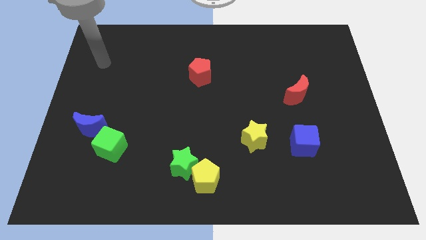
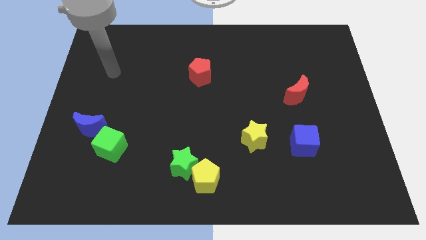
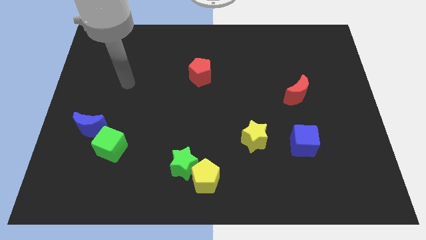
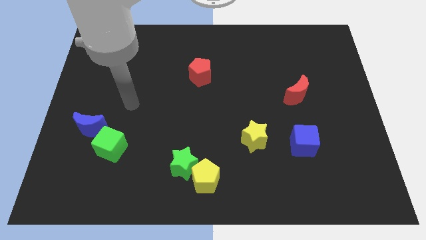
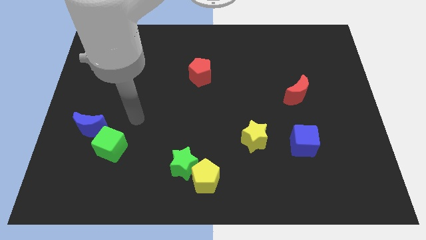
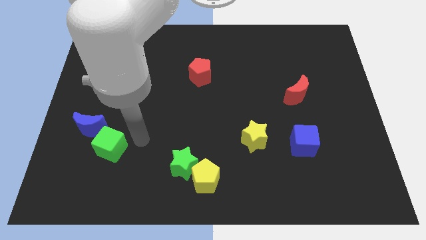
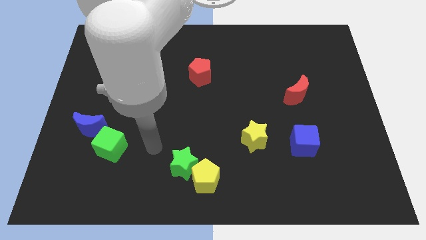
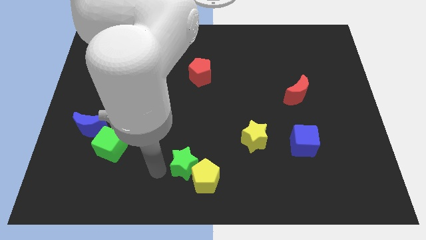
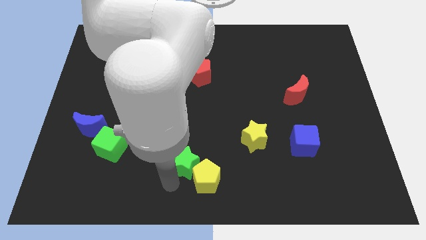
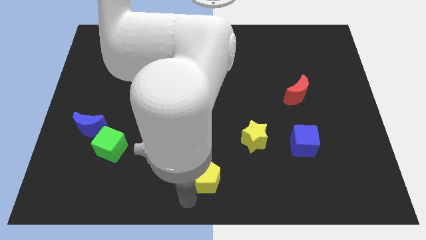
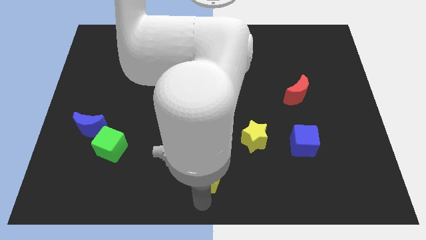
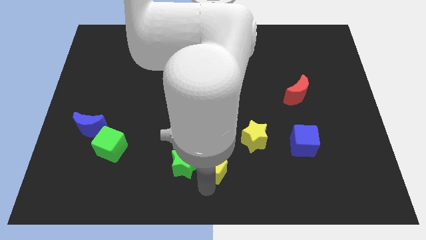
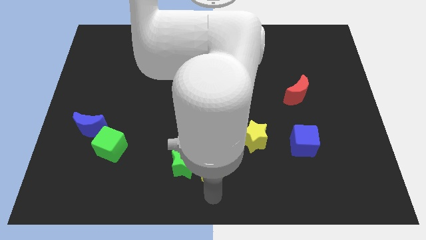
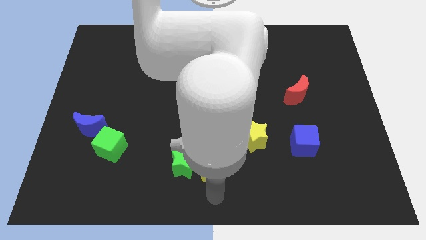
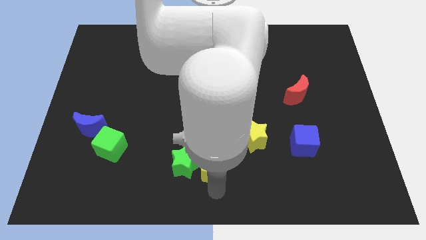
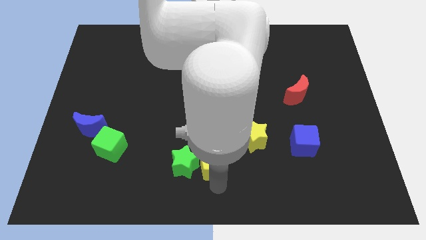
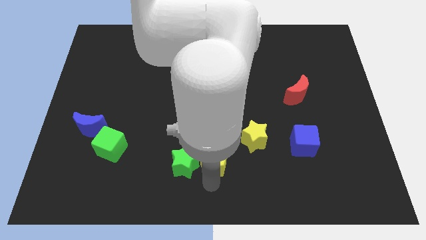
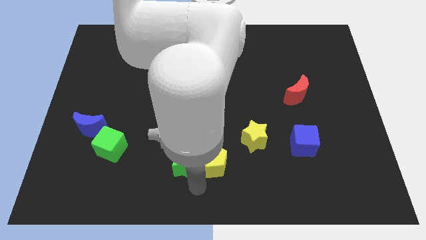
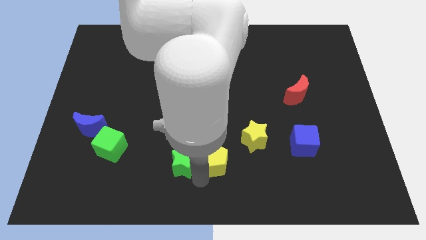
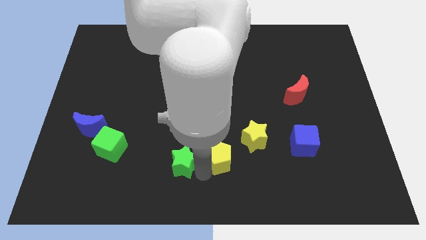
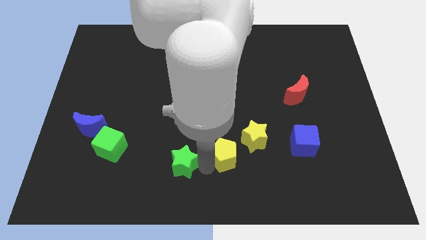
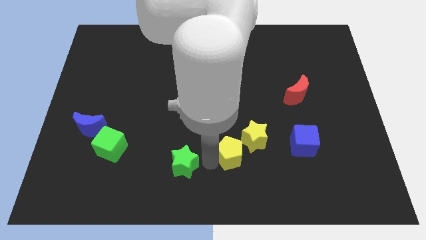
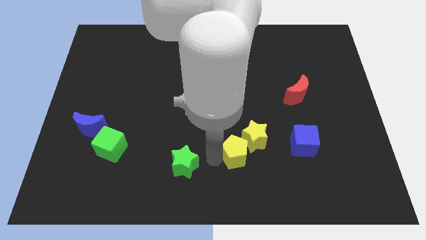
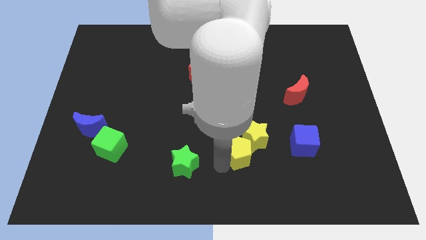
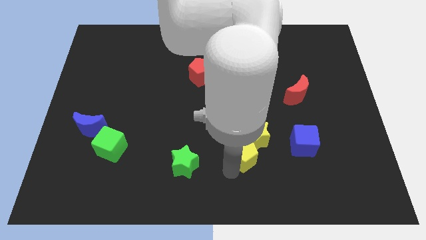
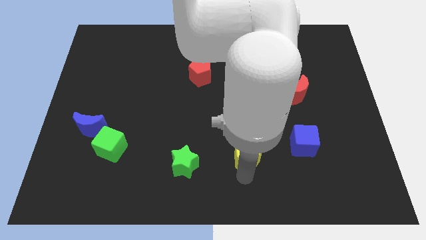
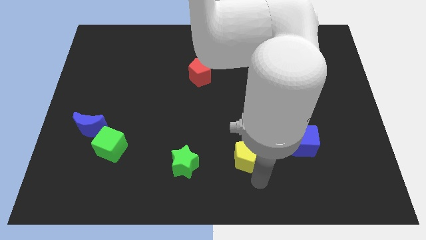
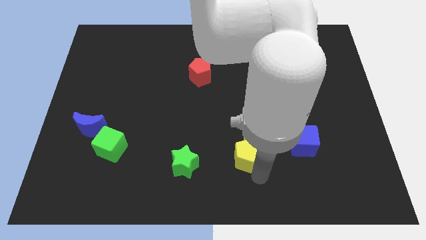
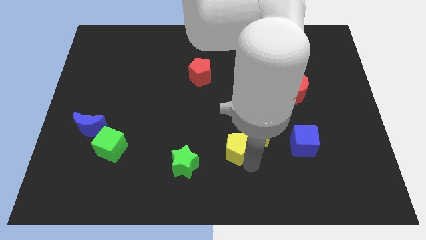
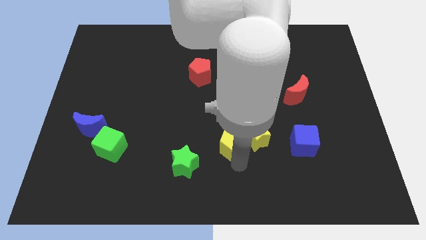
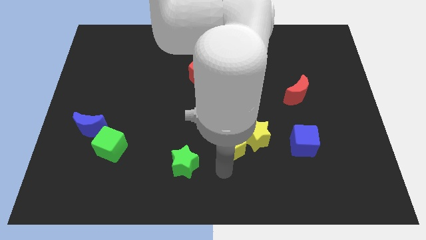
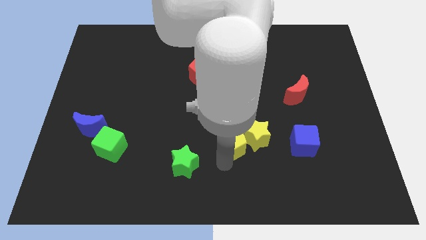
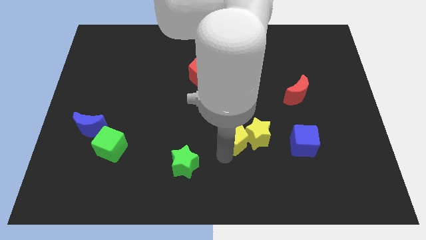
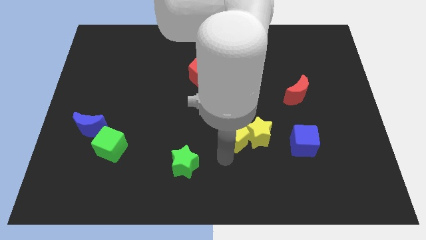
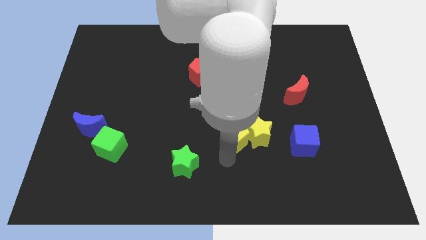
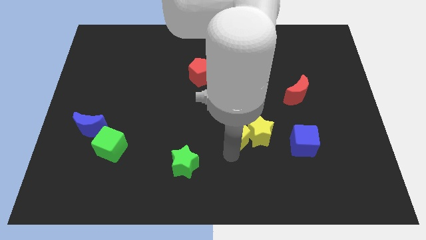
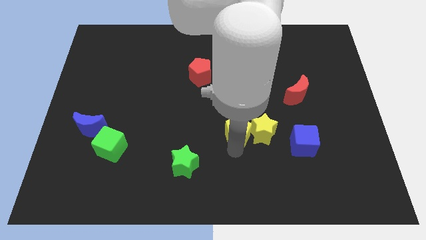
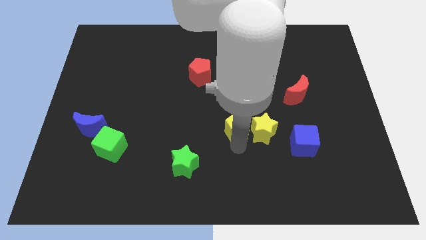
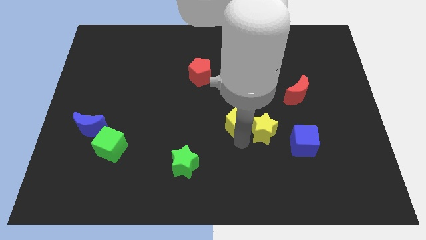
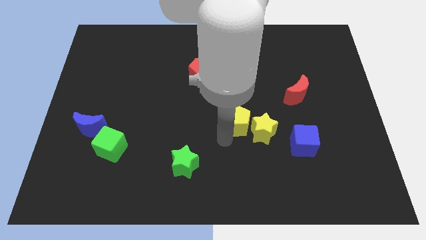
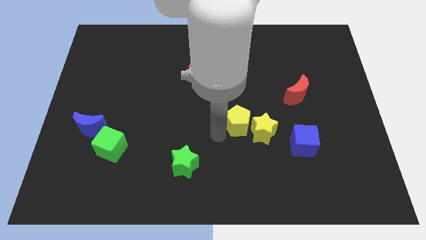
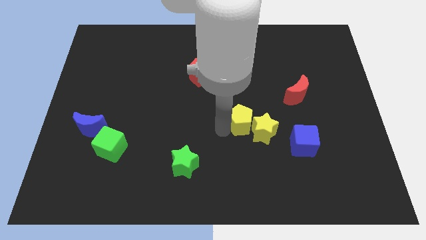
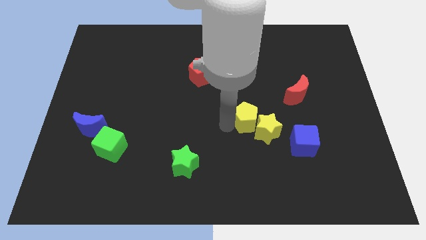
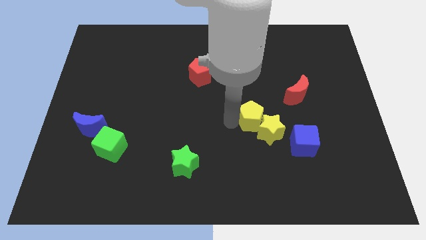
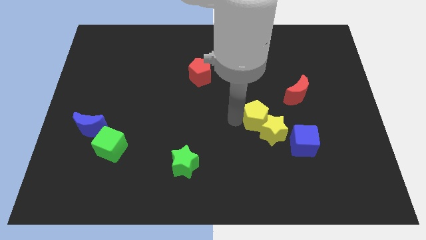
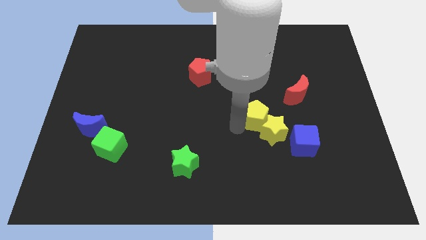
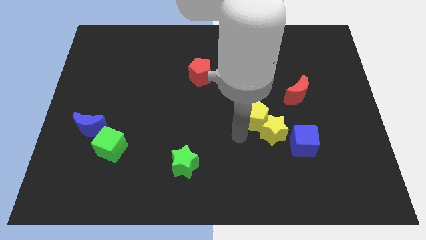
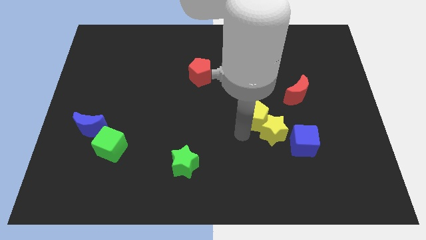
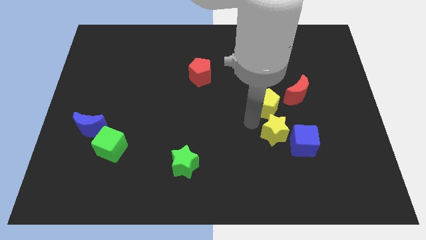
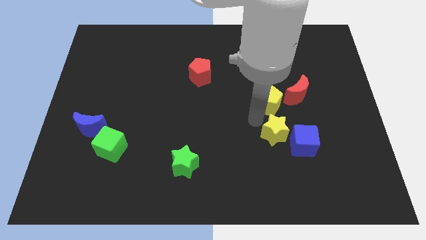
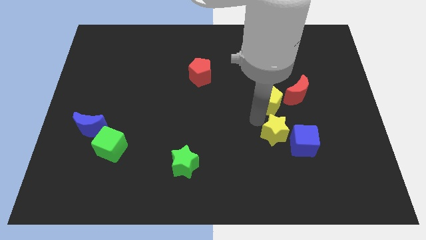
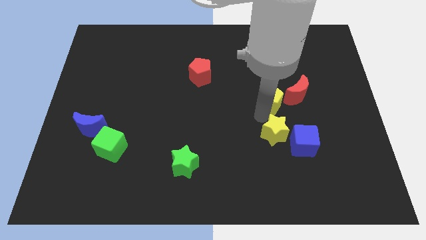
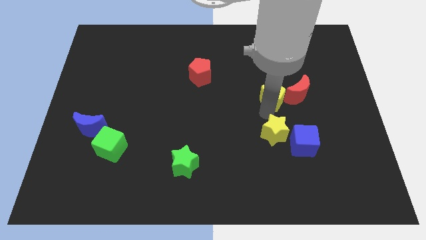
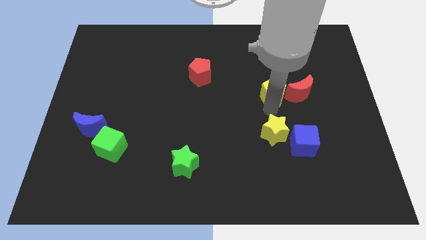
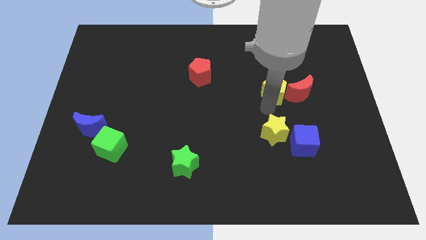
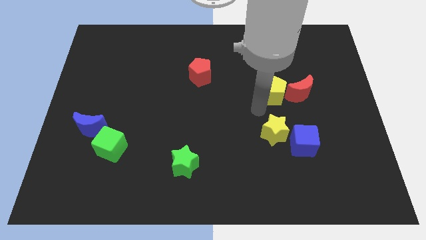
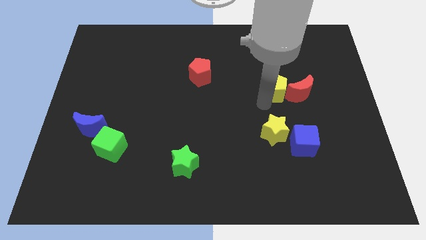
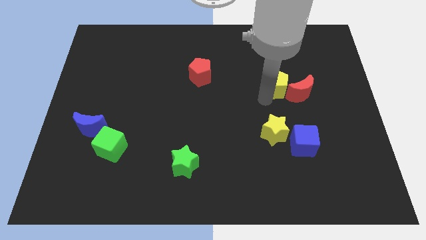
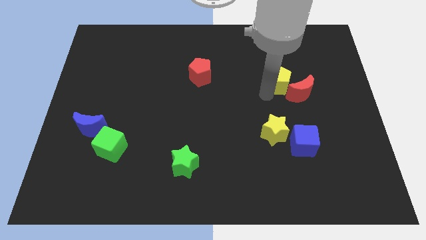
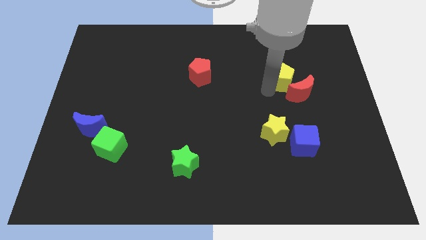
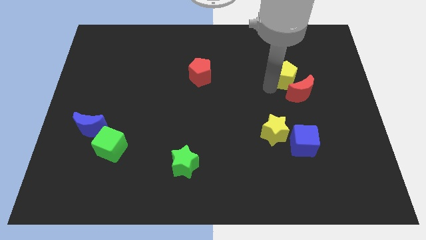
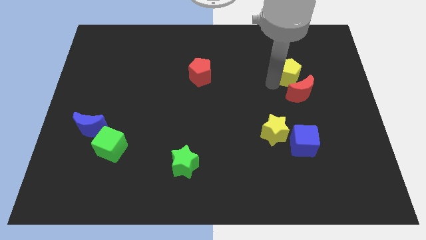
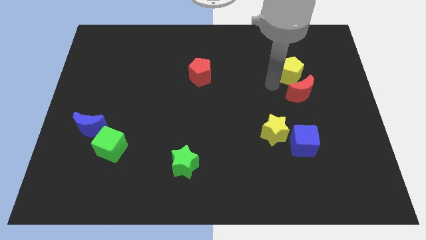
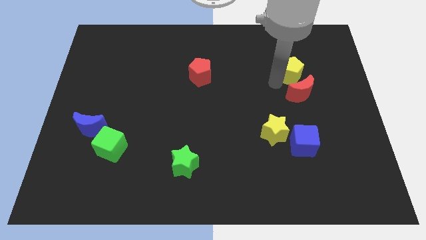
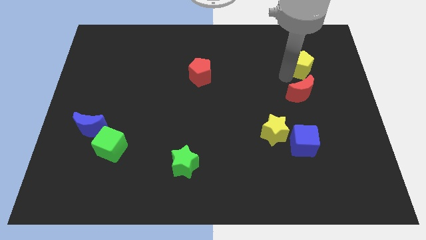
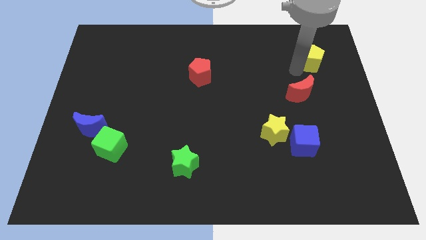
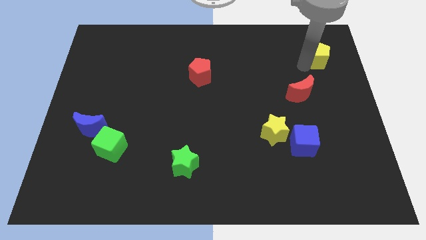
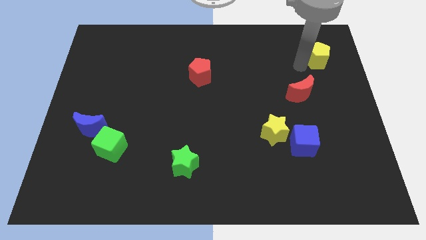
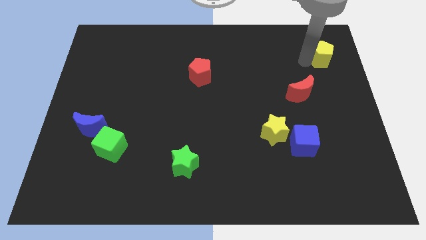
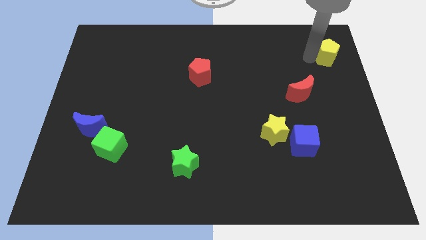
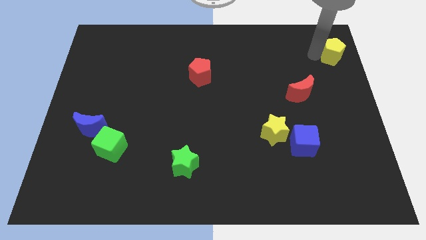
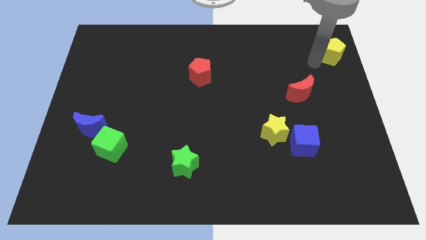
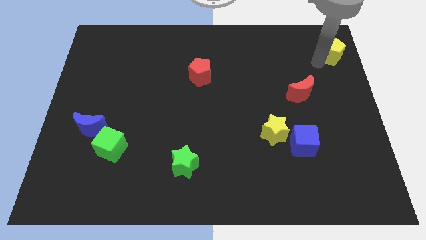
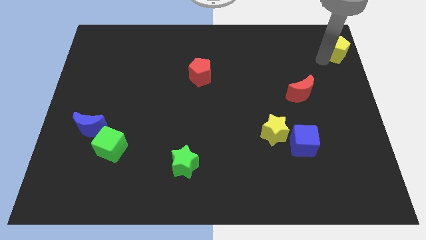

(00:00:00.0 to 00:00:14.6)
move the yellow pentagon to the top right
